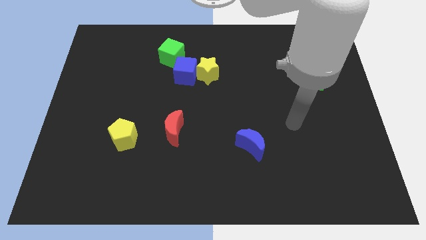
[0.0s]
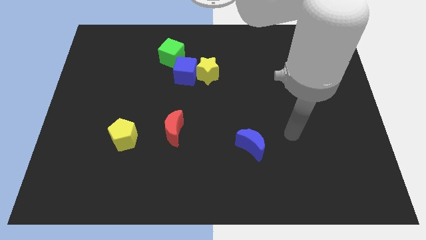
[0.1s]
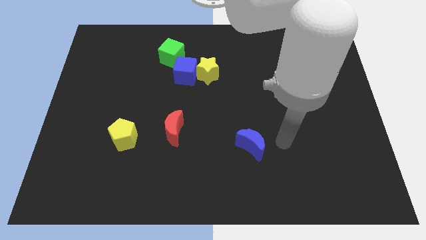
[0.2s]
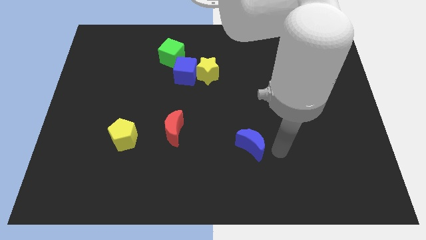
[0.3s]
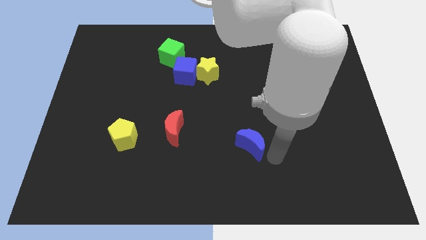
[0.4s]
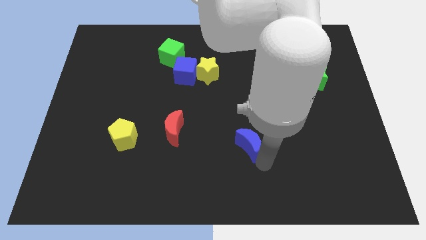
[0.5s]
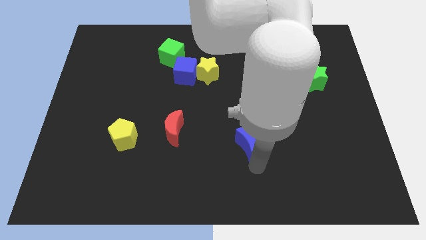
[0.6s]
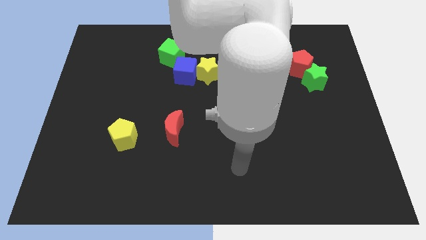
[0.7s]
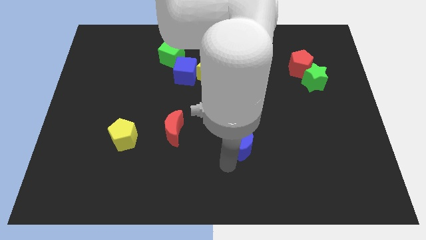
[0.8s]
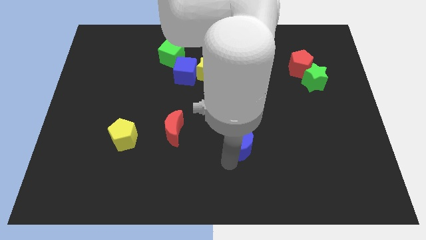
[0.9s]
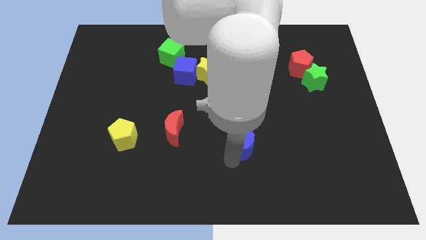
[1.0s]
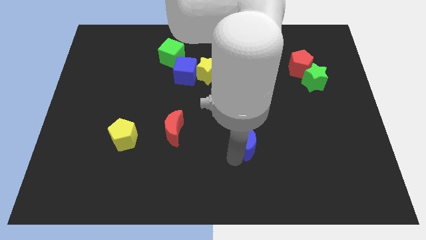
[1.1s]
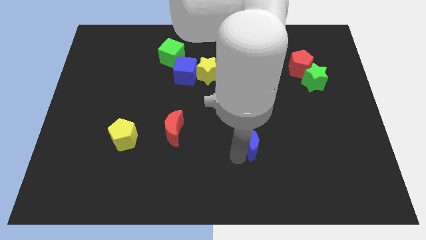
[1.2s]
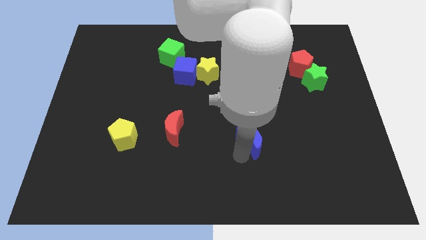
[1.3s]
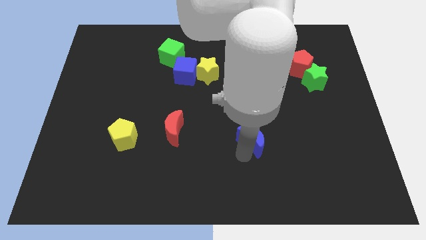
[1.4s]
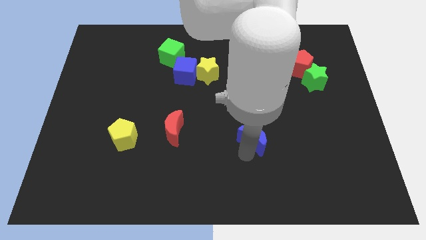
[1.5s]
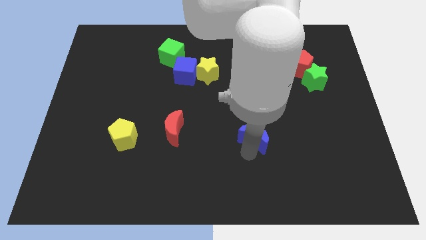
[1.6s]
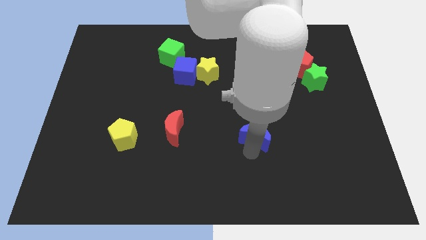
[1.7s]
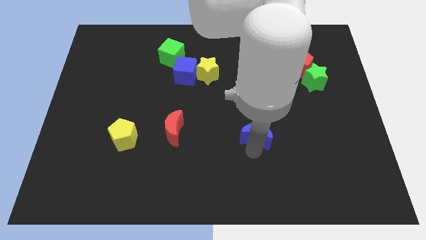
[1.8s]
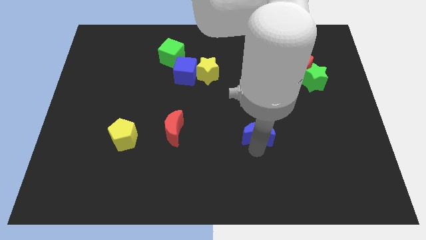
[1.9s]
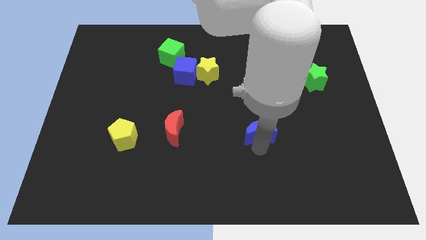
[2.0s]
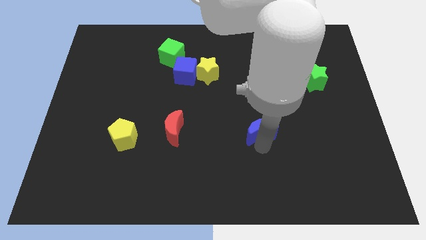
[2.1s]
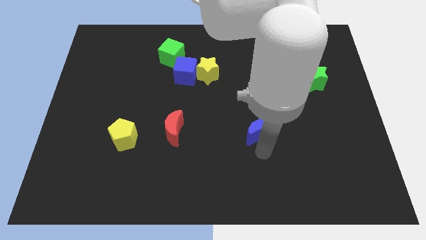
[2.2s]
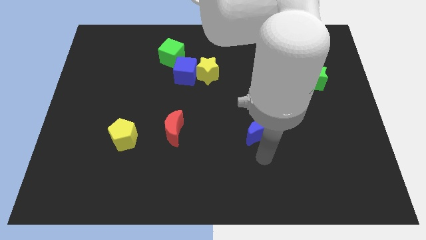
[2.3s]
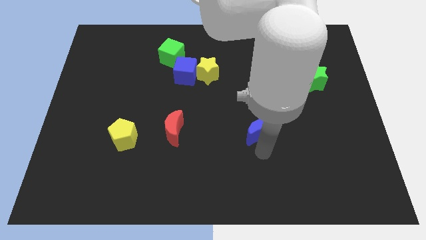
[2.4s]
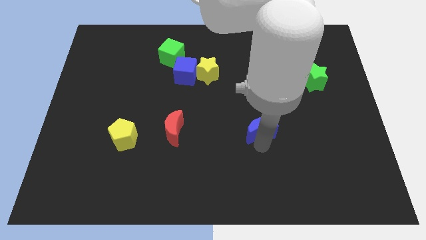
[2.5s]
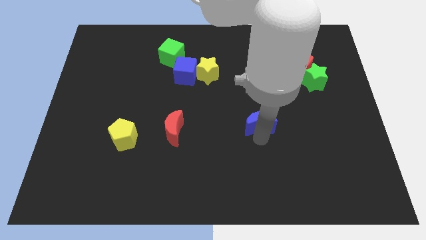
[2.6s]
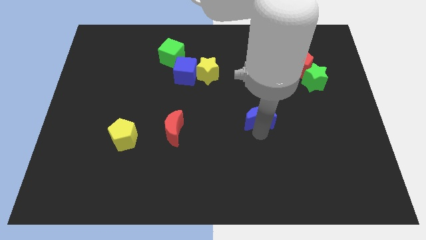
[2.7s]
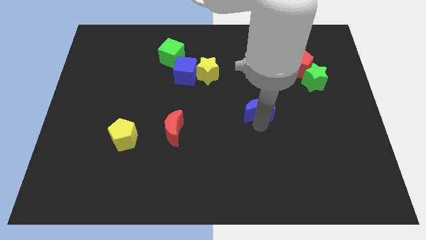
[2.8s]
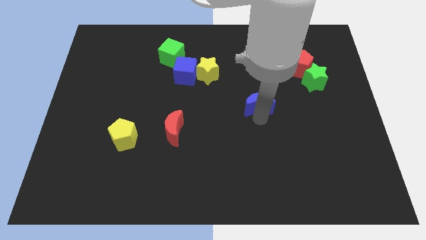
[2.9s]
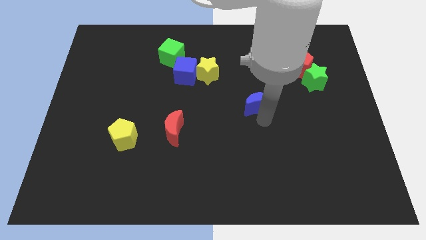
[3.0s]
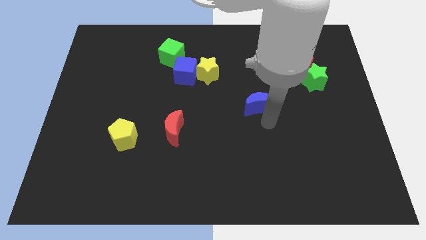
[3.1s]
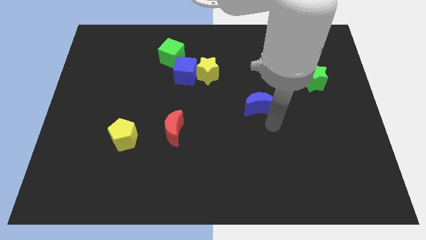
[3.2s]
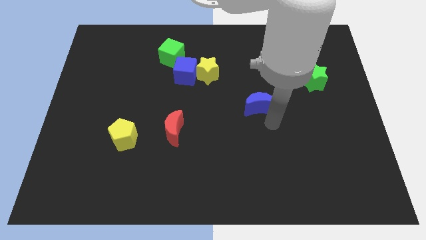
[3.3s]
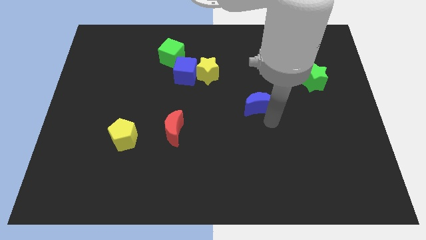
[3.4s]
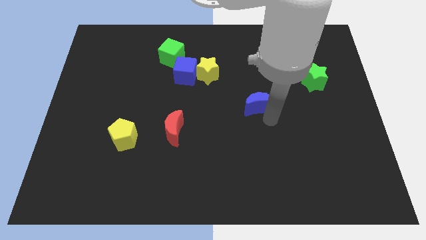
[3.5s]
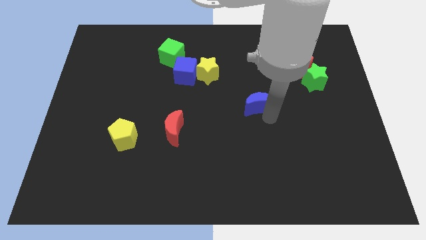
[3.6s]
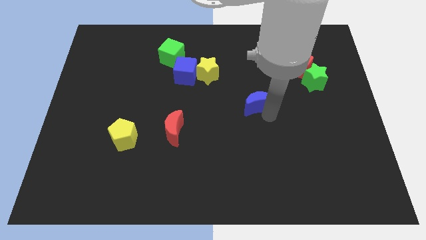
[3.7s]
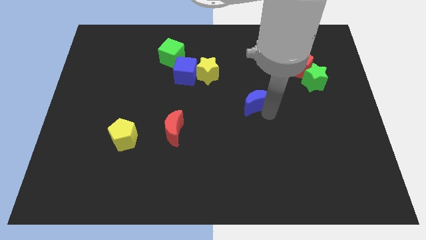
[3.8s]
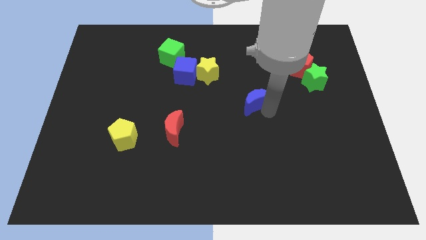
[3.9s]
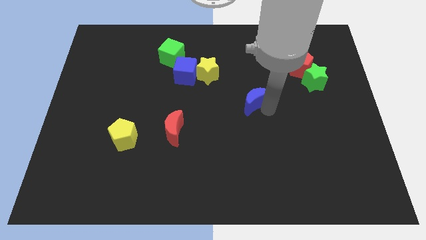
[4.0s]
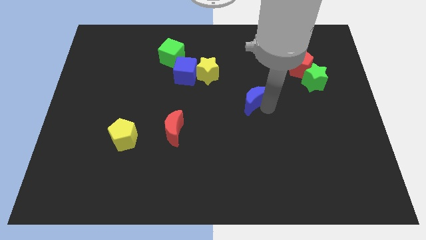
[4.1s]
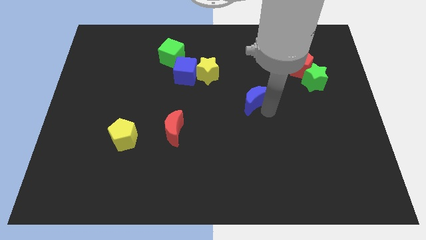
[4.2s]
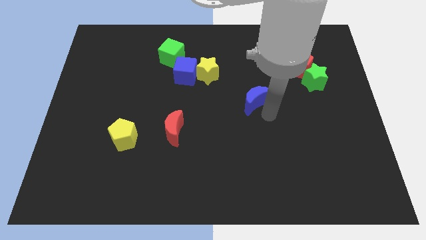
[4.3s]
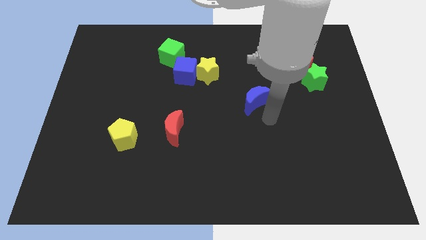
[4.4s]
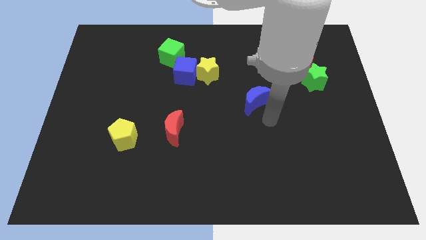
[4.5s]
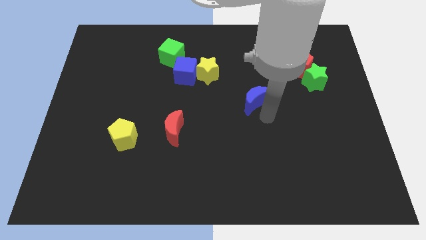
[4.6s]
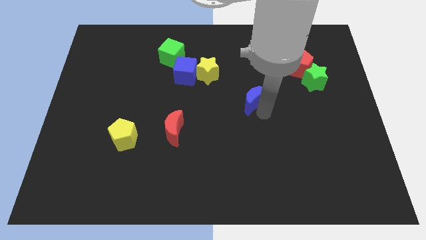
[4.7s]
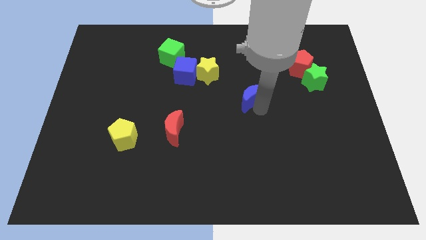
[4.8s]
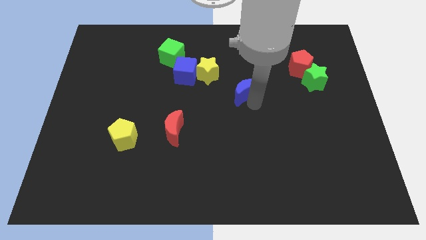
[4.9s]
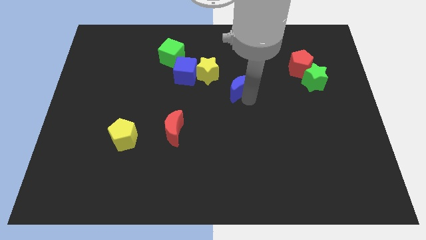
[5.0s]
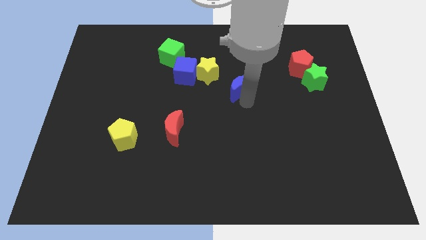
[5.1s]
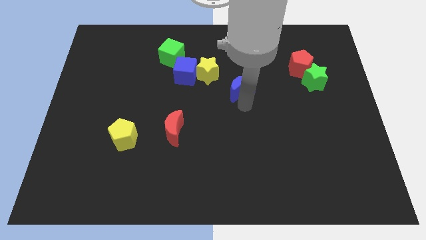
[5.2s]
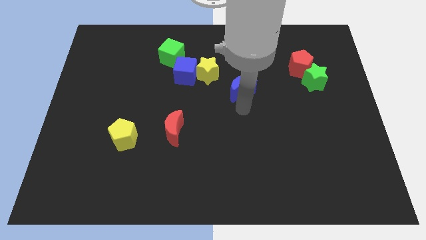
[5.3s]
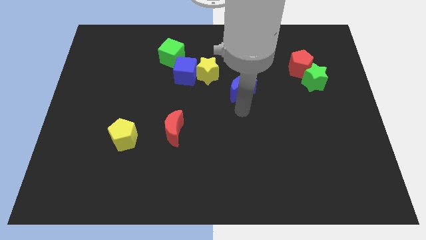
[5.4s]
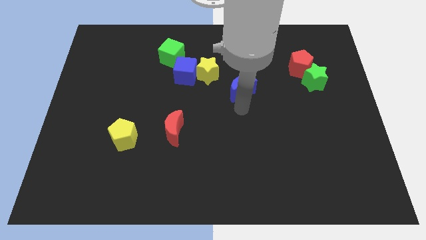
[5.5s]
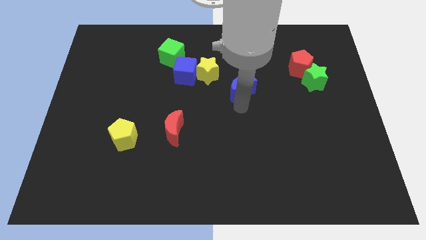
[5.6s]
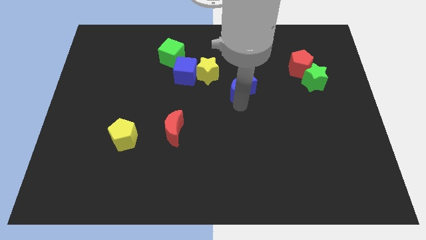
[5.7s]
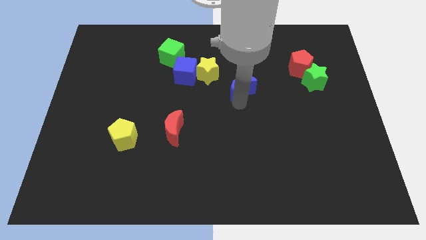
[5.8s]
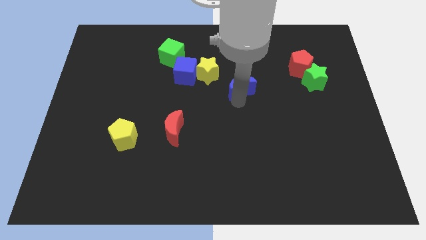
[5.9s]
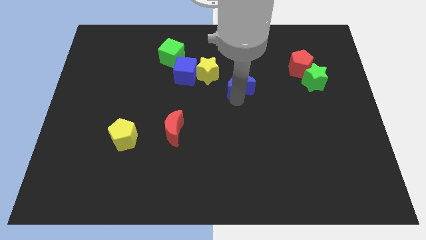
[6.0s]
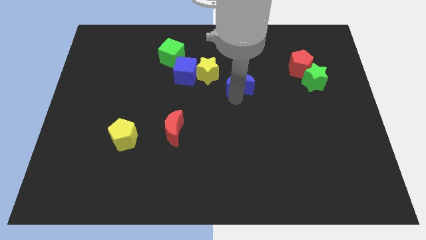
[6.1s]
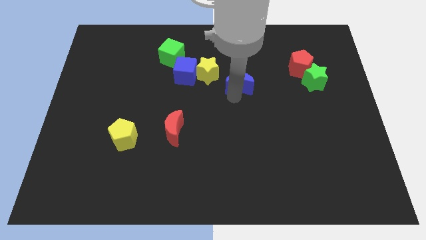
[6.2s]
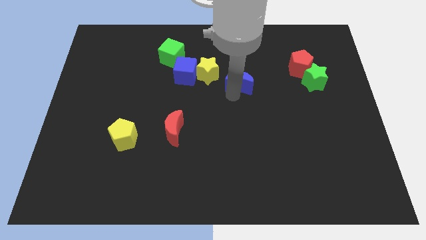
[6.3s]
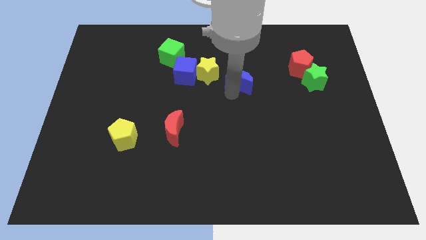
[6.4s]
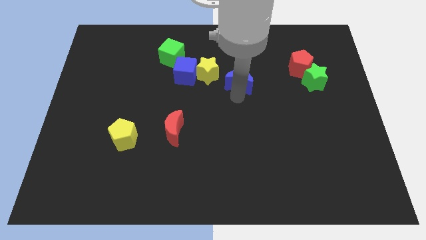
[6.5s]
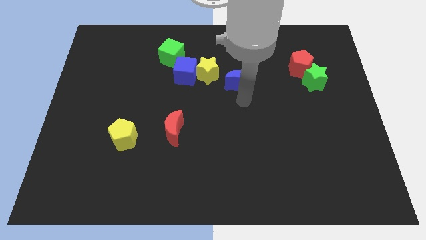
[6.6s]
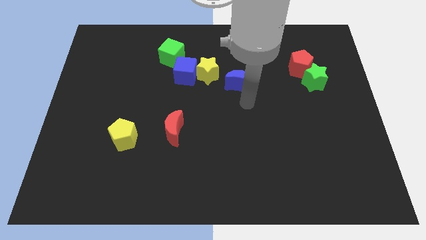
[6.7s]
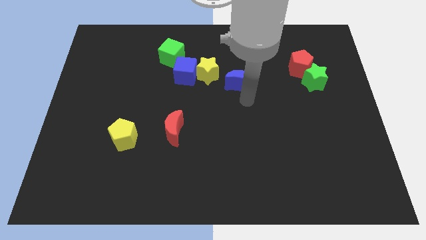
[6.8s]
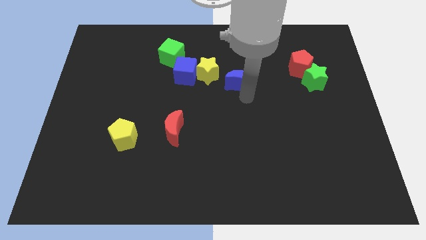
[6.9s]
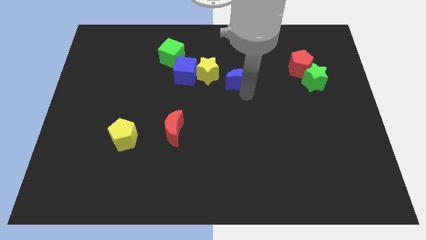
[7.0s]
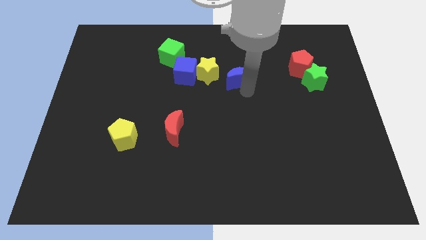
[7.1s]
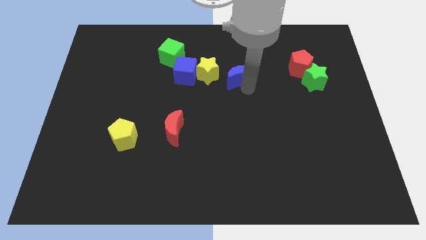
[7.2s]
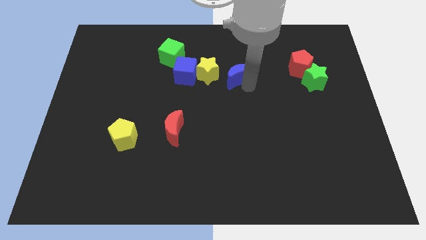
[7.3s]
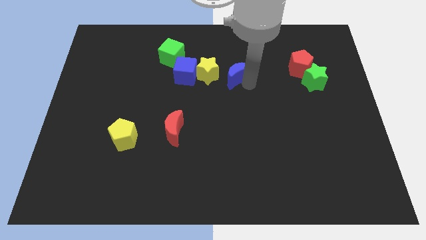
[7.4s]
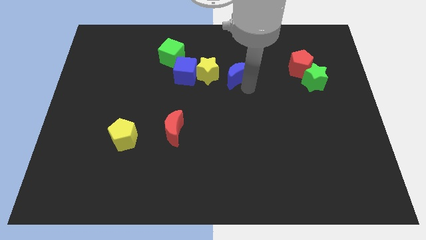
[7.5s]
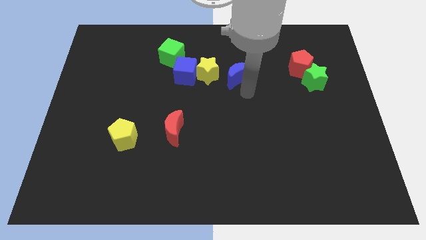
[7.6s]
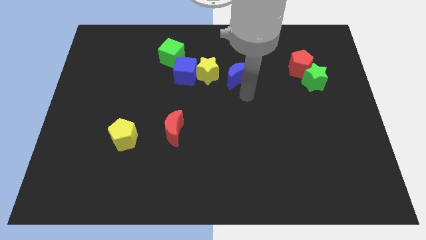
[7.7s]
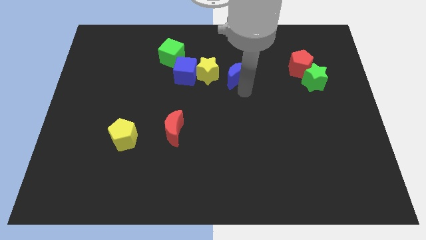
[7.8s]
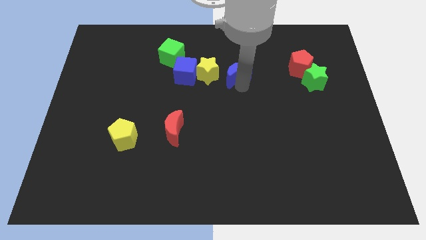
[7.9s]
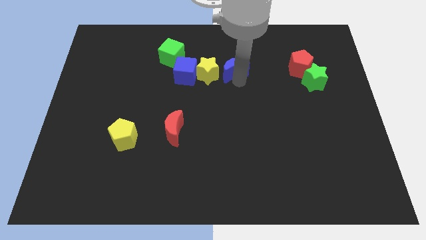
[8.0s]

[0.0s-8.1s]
slide the blue moon diagonally up and to the right of the yellow star
